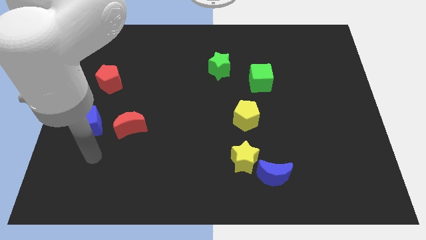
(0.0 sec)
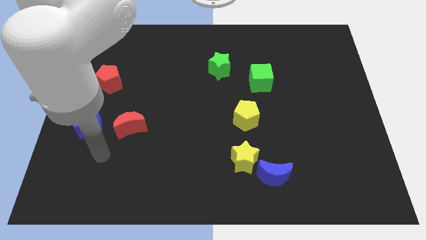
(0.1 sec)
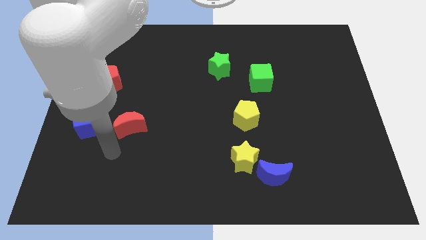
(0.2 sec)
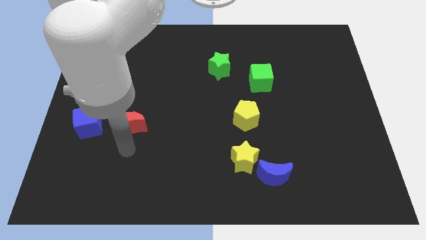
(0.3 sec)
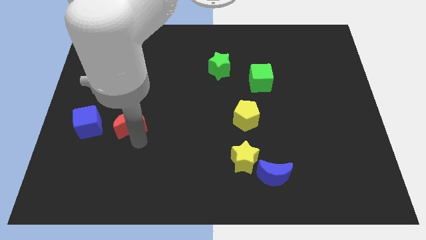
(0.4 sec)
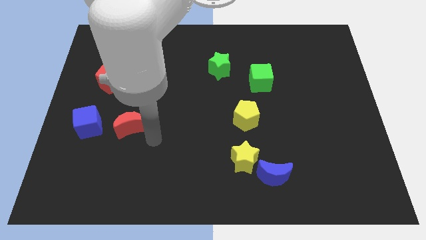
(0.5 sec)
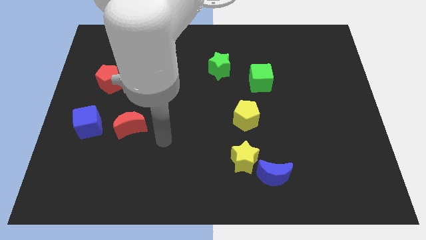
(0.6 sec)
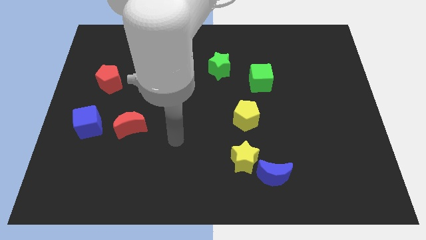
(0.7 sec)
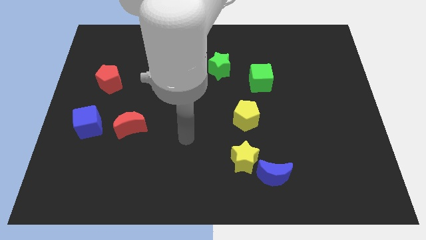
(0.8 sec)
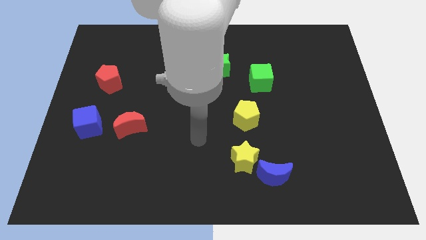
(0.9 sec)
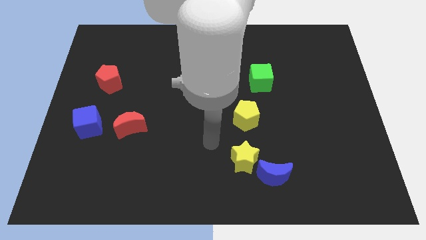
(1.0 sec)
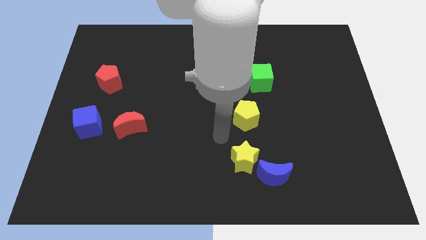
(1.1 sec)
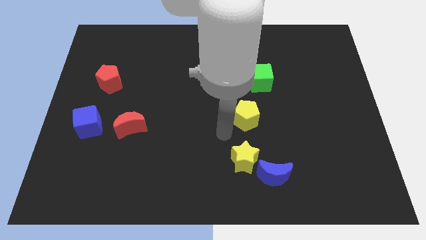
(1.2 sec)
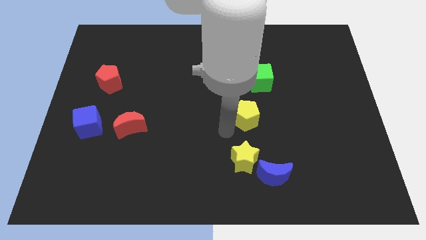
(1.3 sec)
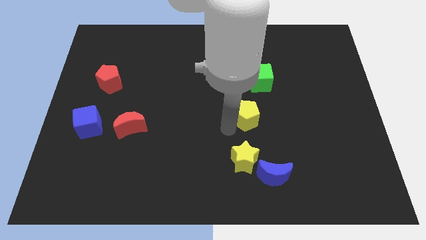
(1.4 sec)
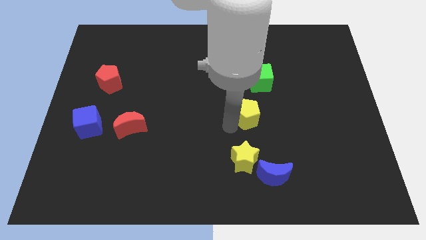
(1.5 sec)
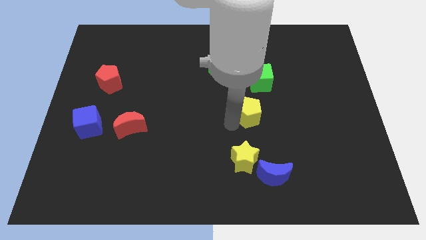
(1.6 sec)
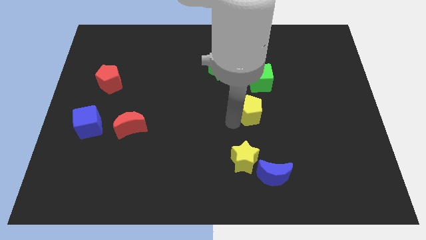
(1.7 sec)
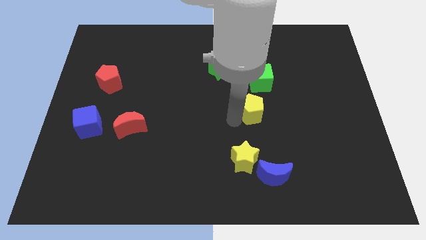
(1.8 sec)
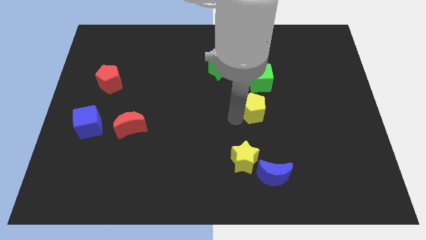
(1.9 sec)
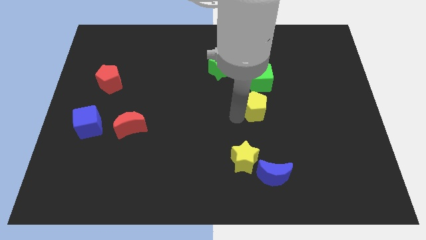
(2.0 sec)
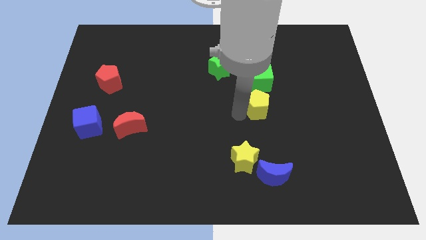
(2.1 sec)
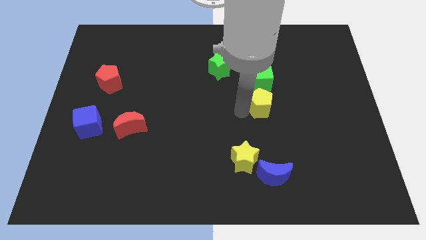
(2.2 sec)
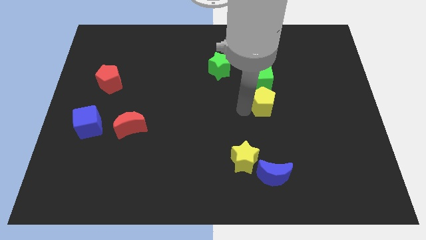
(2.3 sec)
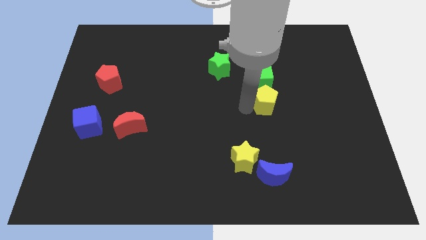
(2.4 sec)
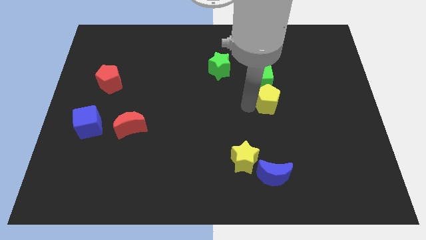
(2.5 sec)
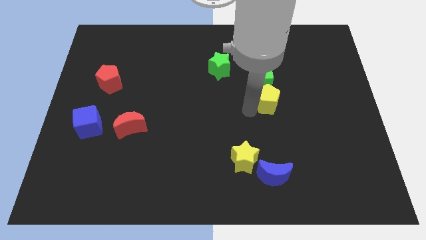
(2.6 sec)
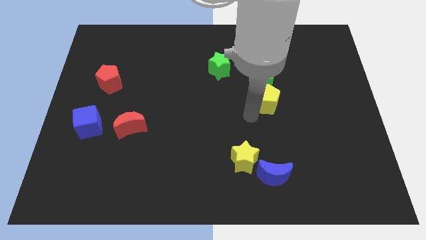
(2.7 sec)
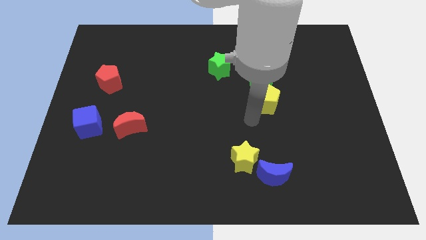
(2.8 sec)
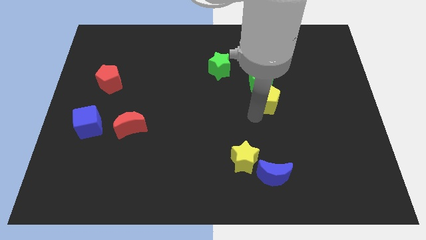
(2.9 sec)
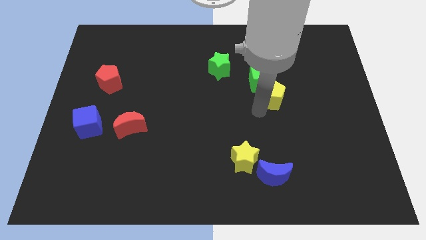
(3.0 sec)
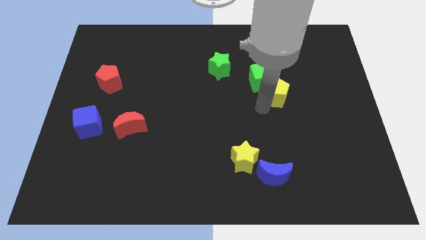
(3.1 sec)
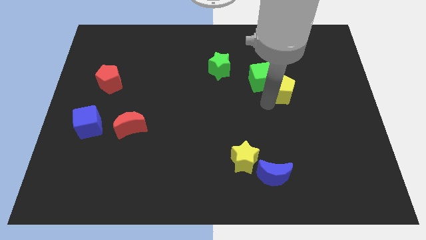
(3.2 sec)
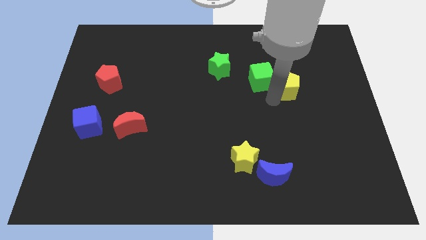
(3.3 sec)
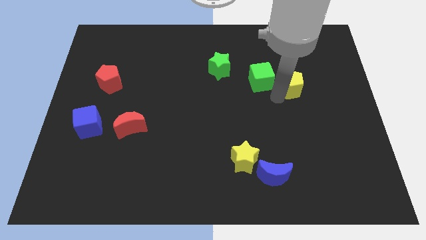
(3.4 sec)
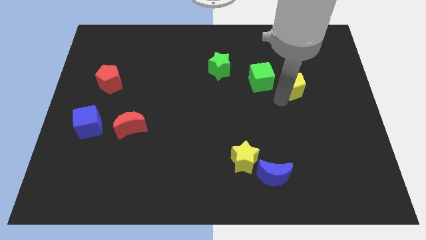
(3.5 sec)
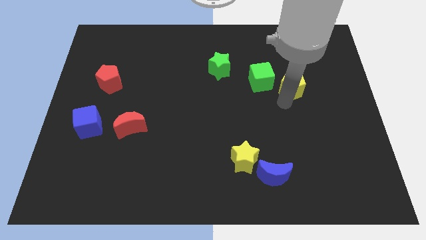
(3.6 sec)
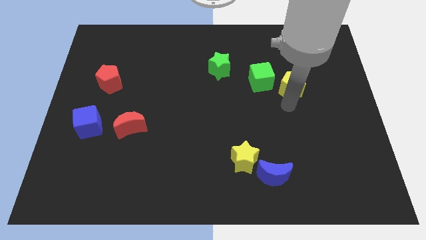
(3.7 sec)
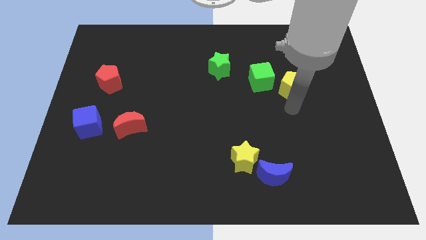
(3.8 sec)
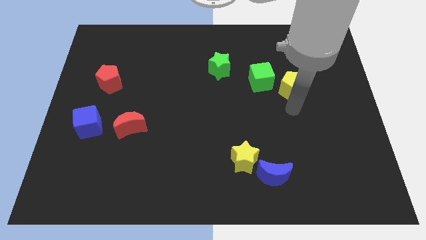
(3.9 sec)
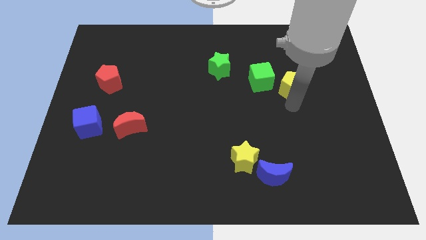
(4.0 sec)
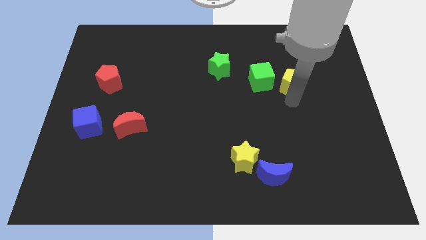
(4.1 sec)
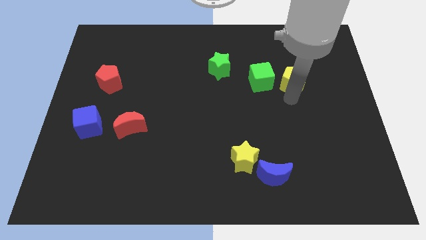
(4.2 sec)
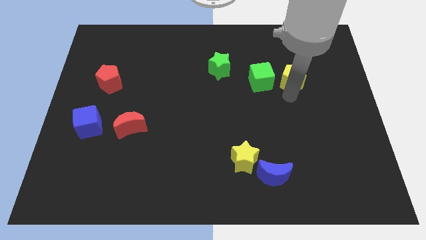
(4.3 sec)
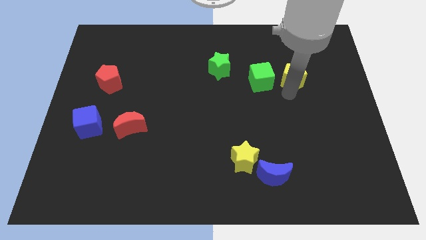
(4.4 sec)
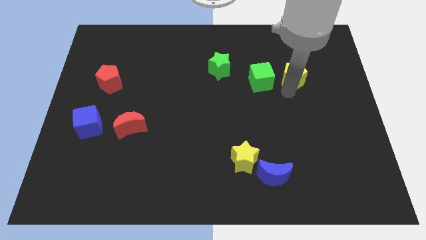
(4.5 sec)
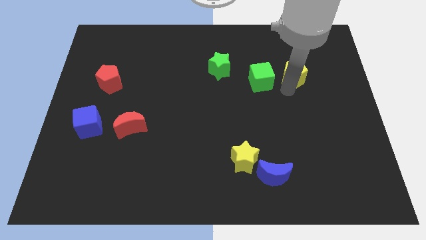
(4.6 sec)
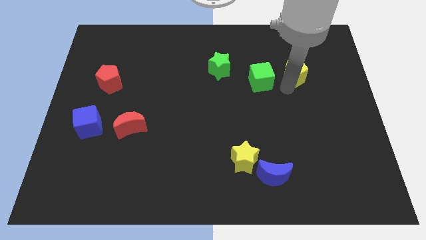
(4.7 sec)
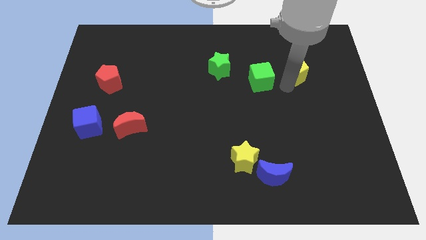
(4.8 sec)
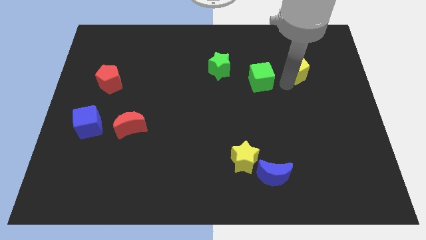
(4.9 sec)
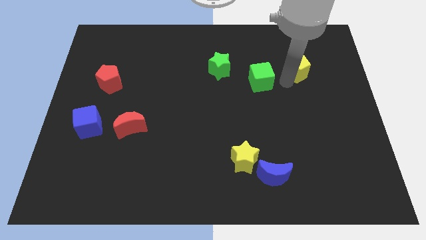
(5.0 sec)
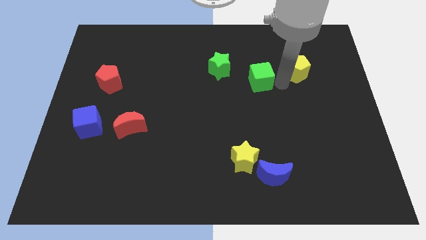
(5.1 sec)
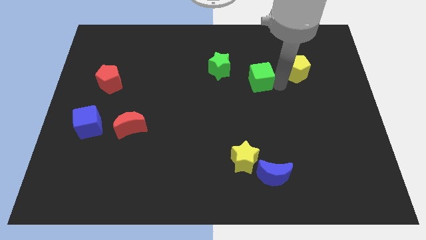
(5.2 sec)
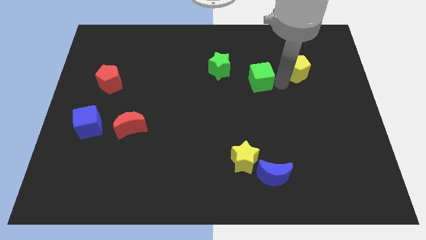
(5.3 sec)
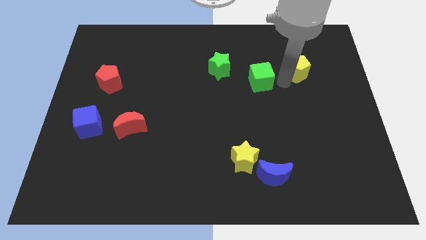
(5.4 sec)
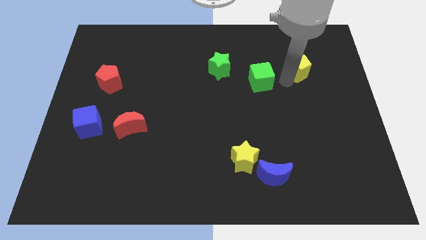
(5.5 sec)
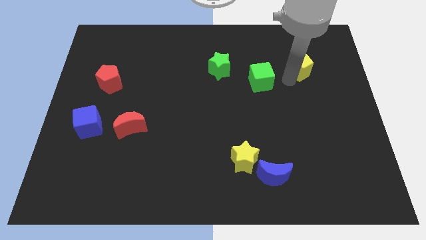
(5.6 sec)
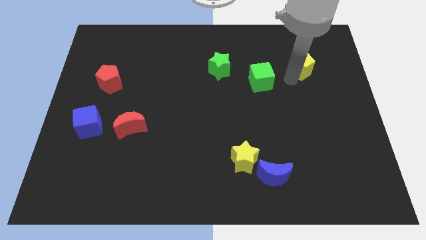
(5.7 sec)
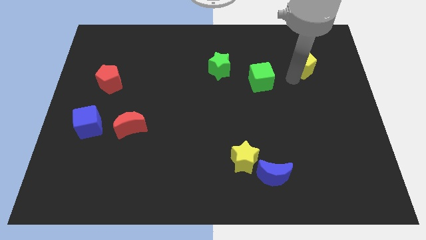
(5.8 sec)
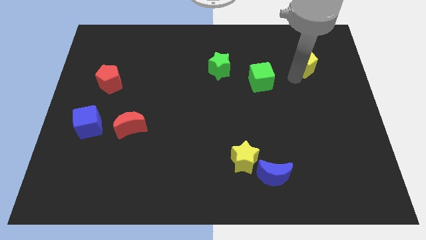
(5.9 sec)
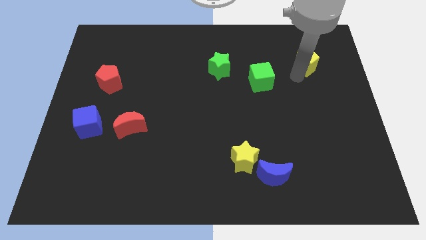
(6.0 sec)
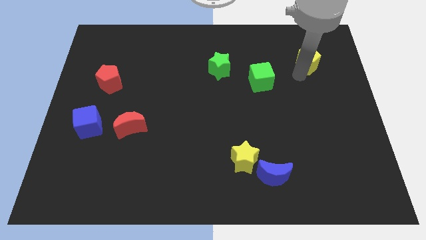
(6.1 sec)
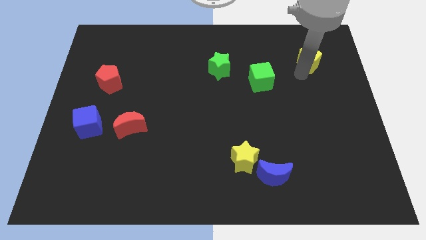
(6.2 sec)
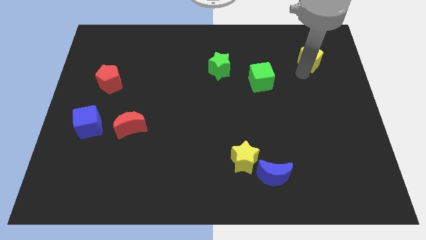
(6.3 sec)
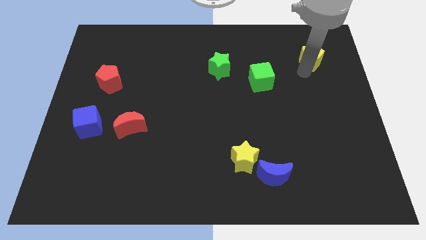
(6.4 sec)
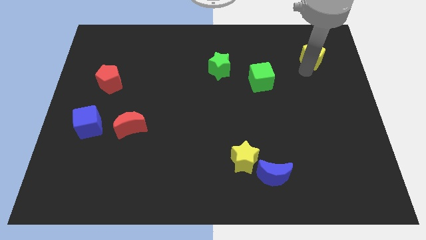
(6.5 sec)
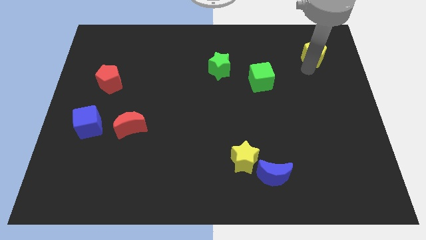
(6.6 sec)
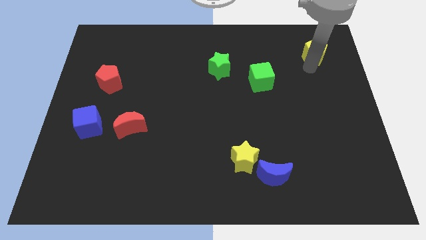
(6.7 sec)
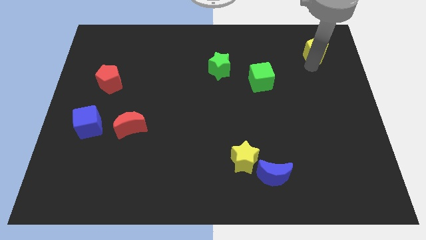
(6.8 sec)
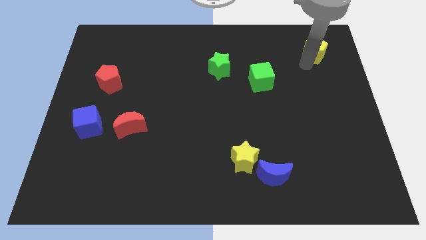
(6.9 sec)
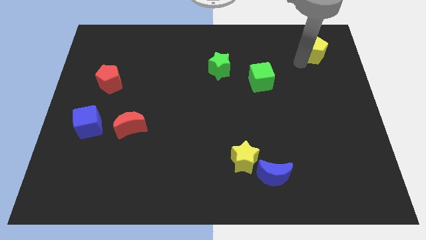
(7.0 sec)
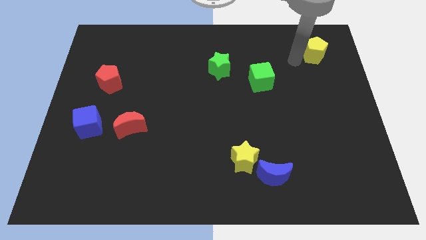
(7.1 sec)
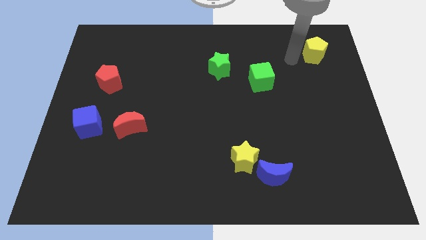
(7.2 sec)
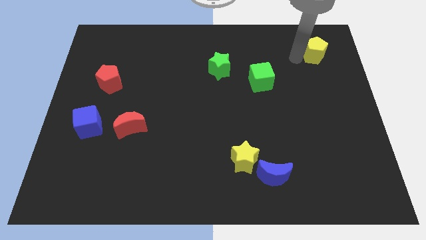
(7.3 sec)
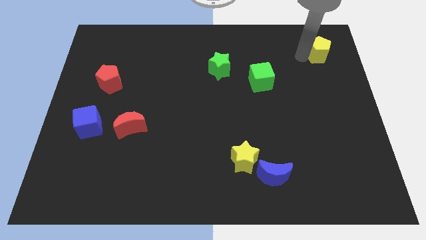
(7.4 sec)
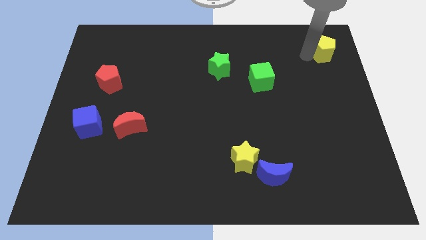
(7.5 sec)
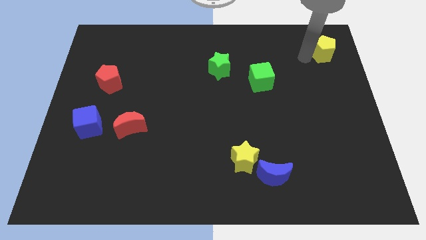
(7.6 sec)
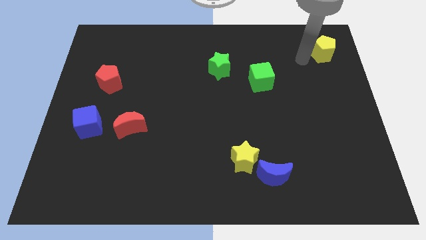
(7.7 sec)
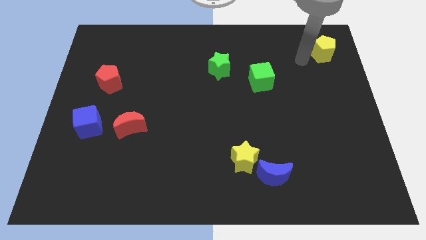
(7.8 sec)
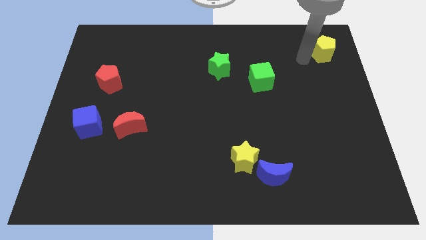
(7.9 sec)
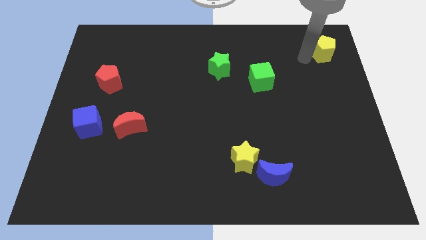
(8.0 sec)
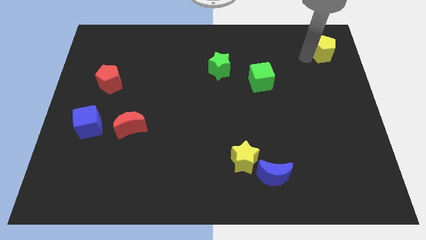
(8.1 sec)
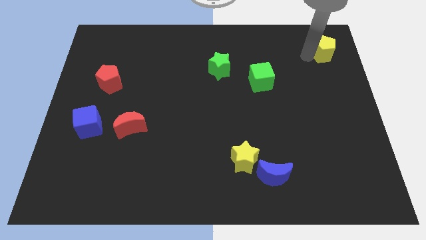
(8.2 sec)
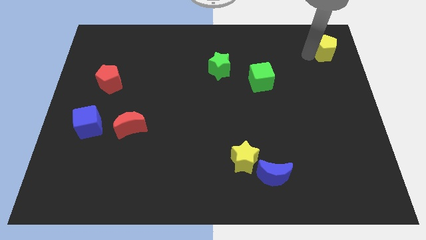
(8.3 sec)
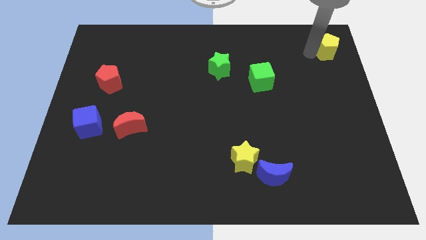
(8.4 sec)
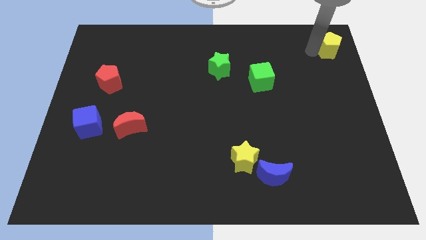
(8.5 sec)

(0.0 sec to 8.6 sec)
put the yellow pentagon to the top right
